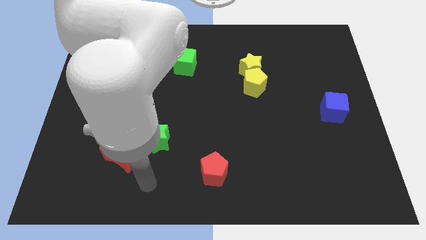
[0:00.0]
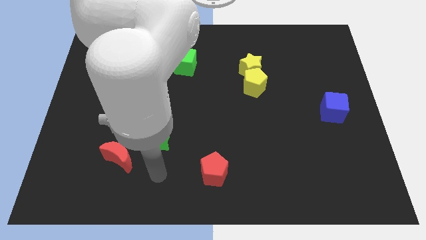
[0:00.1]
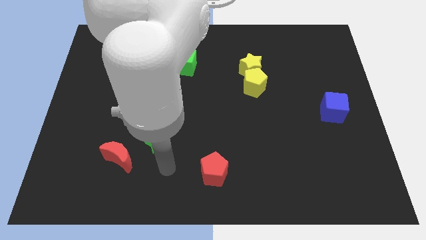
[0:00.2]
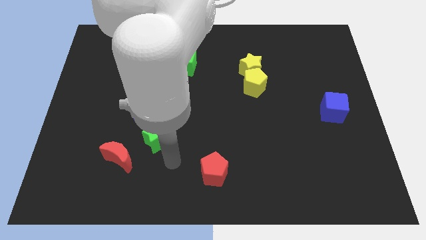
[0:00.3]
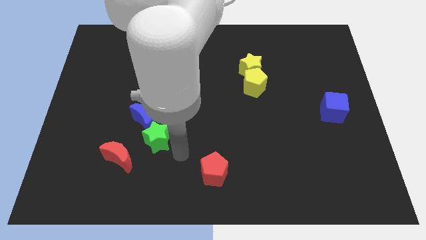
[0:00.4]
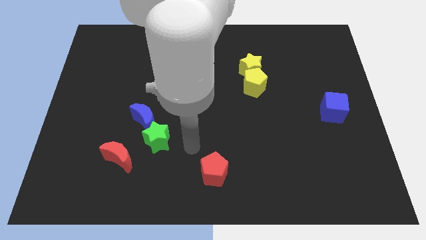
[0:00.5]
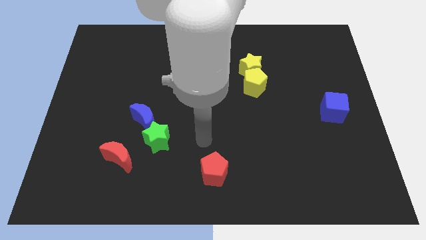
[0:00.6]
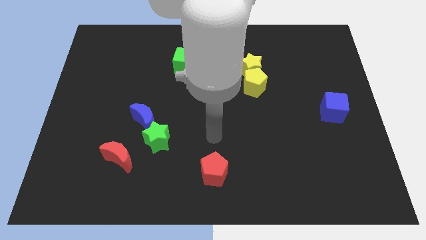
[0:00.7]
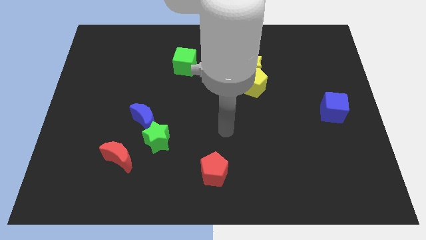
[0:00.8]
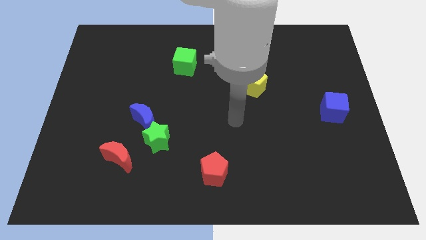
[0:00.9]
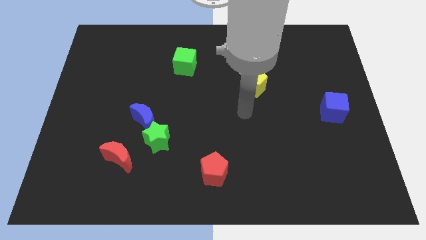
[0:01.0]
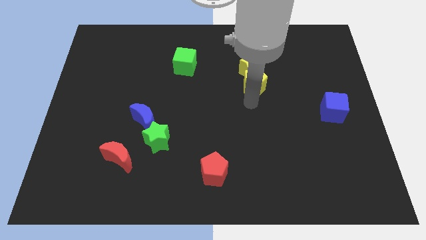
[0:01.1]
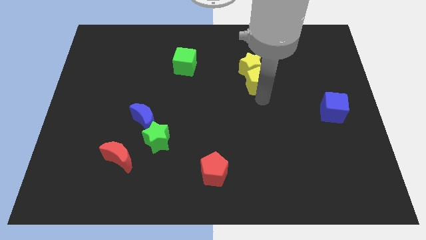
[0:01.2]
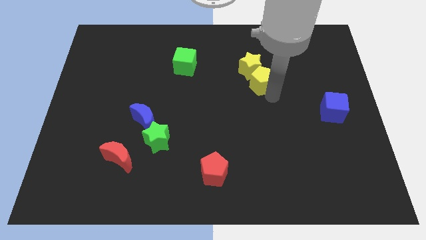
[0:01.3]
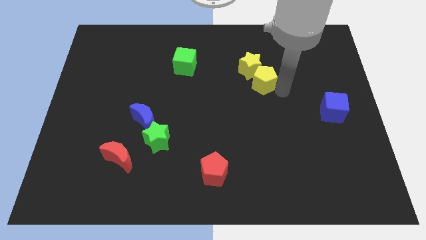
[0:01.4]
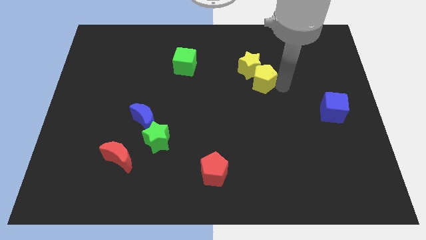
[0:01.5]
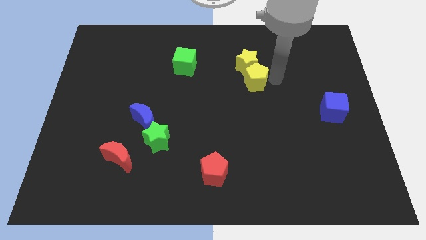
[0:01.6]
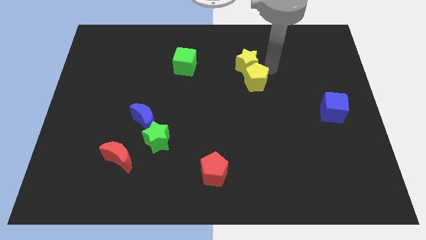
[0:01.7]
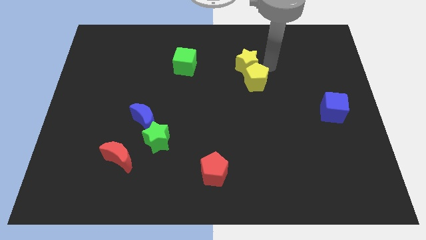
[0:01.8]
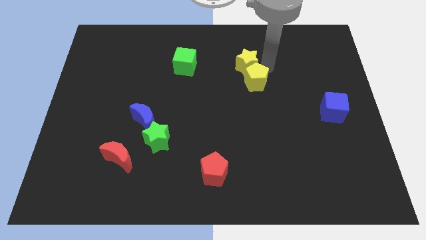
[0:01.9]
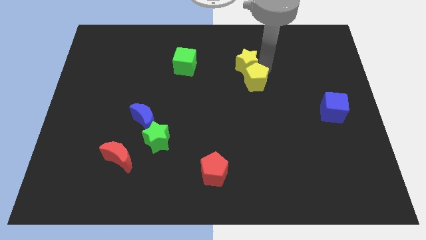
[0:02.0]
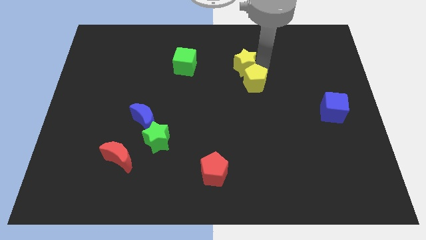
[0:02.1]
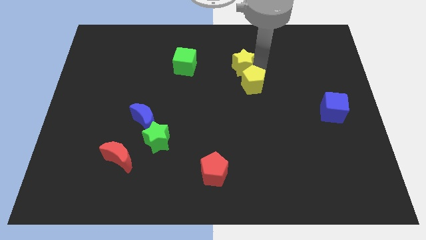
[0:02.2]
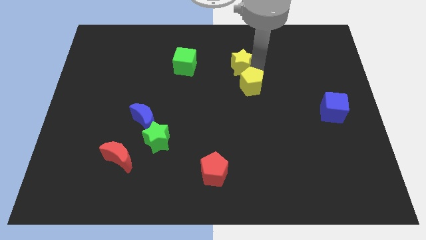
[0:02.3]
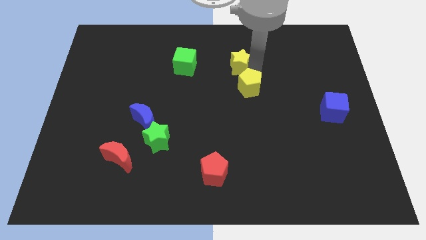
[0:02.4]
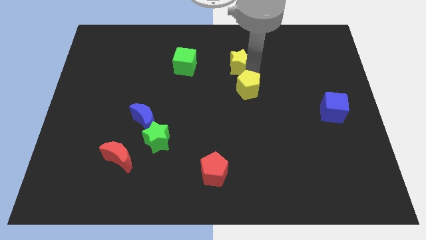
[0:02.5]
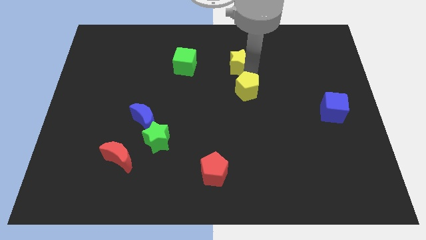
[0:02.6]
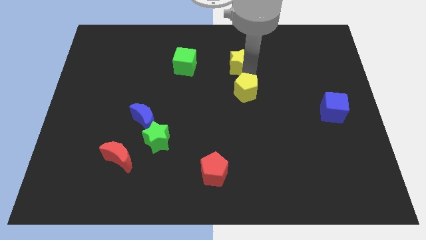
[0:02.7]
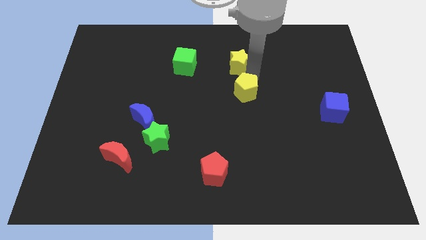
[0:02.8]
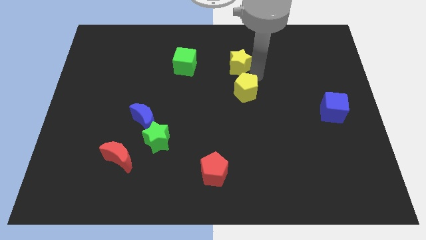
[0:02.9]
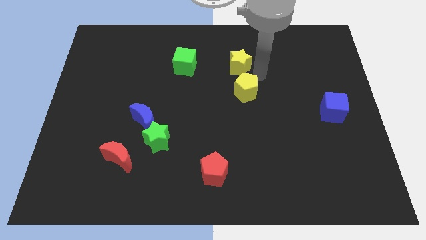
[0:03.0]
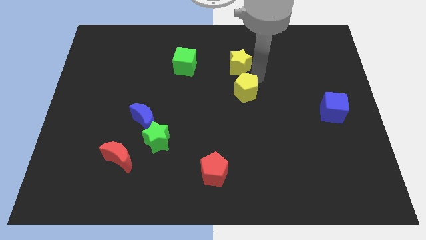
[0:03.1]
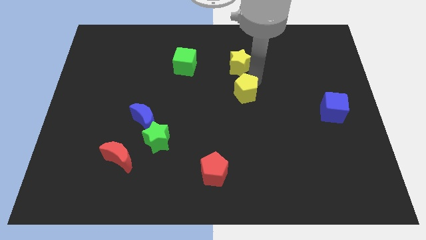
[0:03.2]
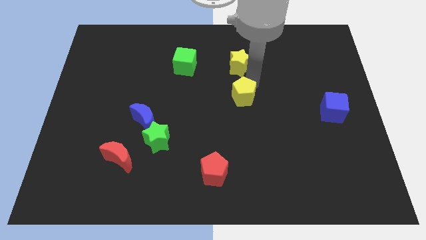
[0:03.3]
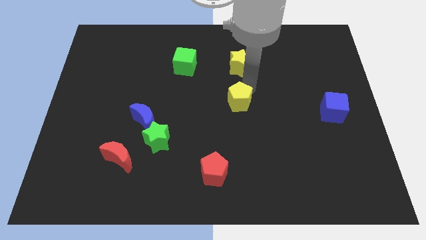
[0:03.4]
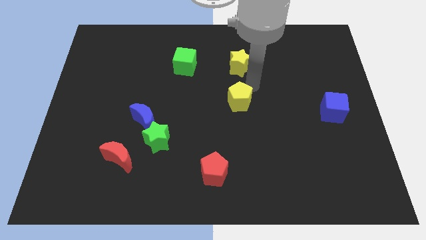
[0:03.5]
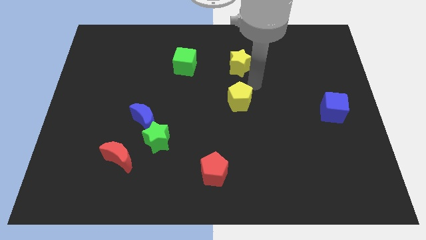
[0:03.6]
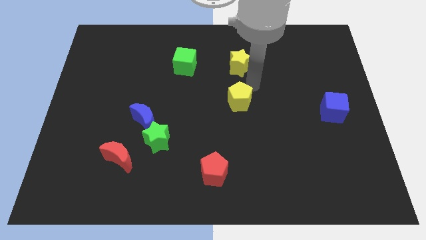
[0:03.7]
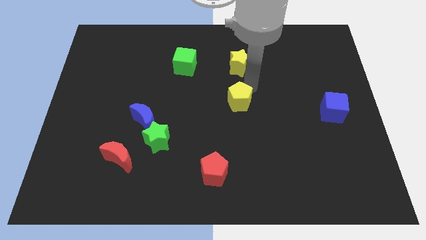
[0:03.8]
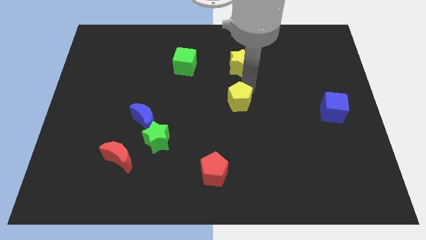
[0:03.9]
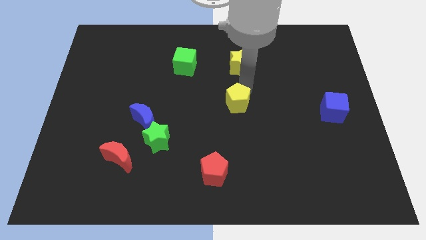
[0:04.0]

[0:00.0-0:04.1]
slightly slide the yellow pentagon down and to the left

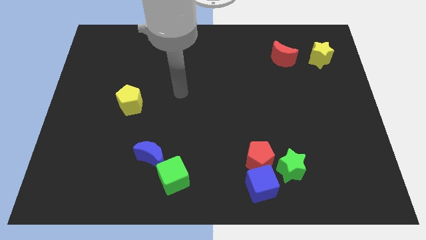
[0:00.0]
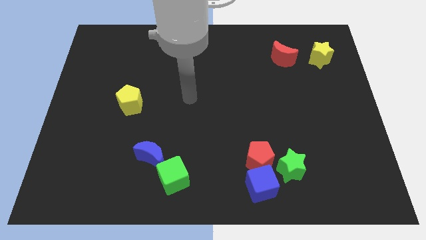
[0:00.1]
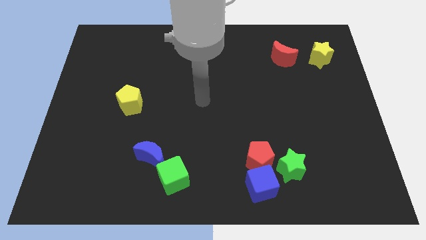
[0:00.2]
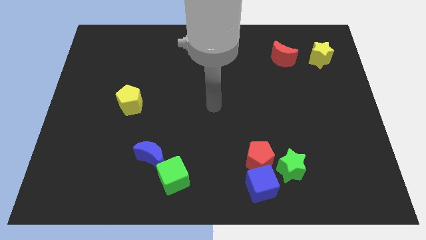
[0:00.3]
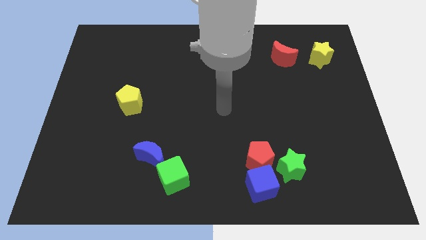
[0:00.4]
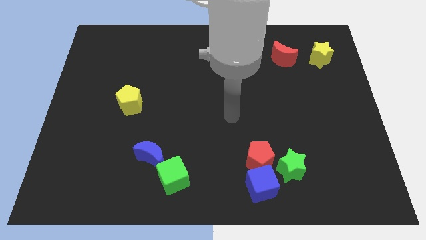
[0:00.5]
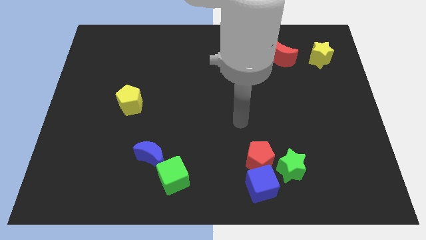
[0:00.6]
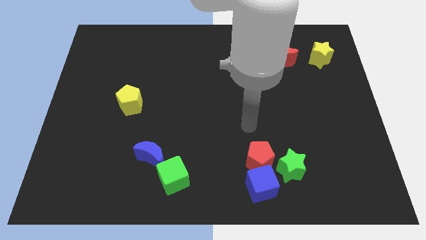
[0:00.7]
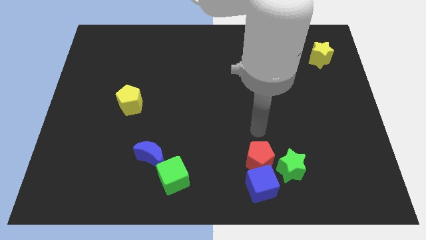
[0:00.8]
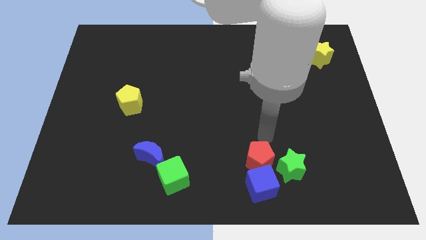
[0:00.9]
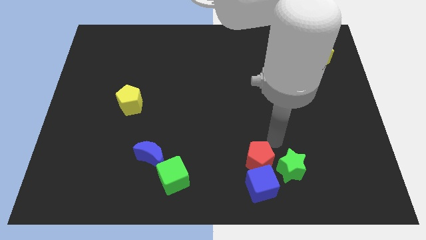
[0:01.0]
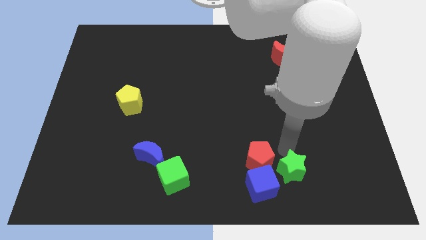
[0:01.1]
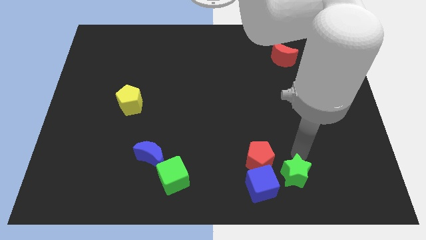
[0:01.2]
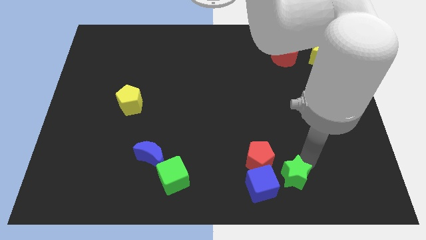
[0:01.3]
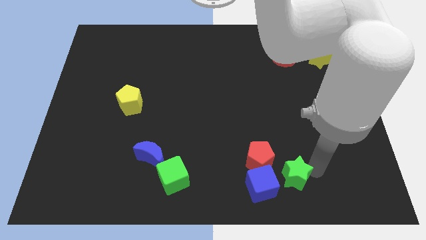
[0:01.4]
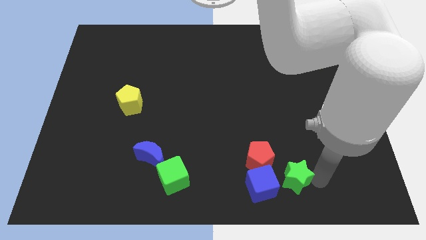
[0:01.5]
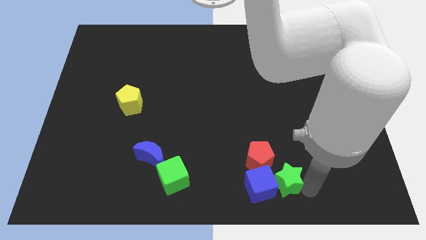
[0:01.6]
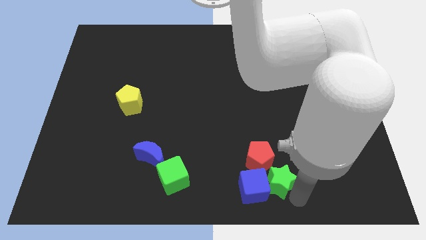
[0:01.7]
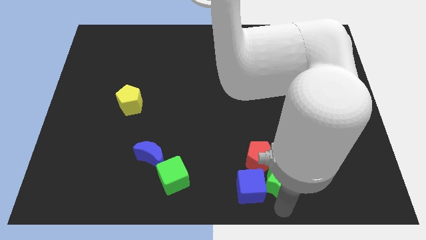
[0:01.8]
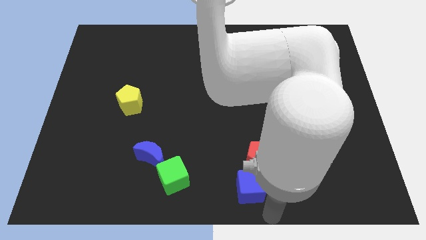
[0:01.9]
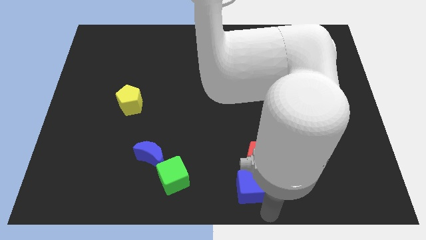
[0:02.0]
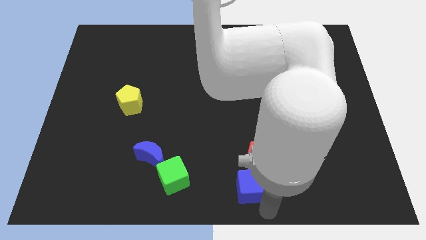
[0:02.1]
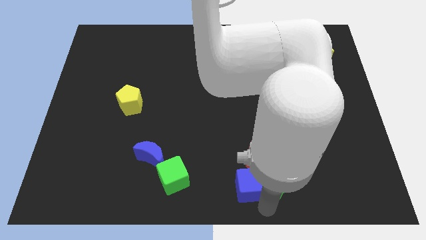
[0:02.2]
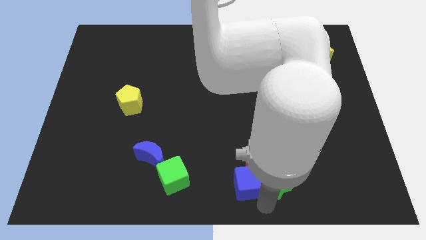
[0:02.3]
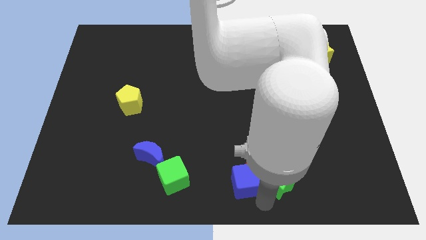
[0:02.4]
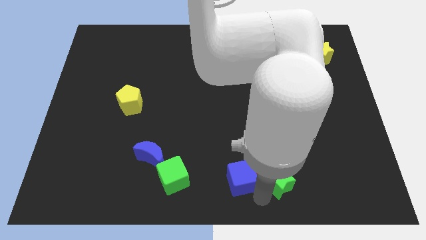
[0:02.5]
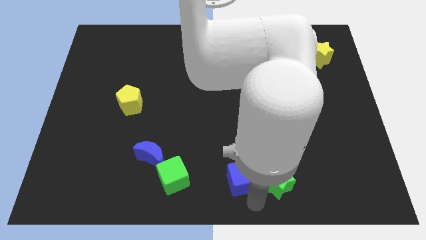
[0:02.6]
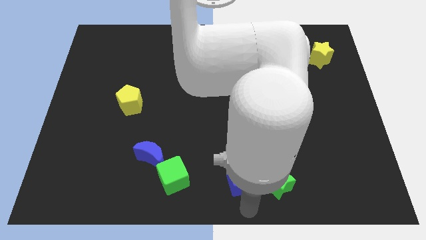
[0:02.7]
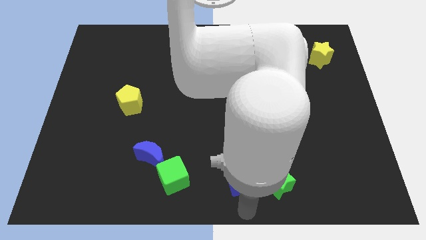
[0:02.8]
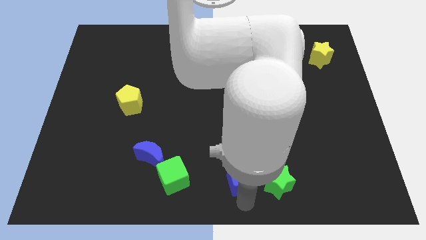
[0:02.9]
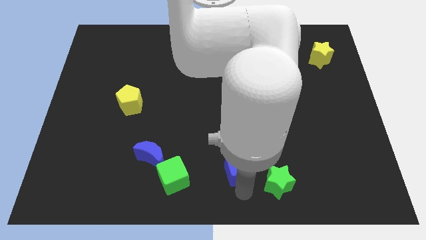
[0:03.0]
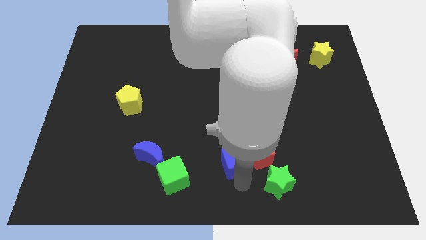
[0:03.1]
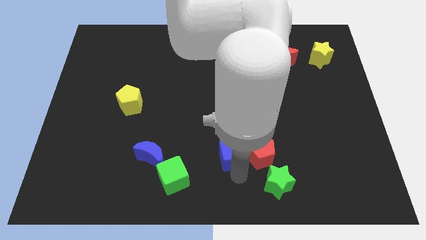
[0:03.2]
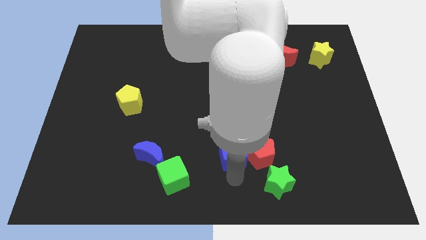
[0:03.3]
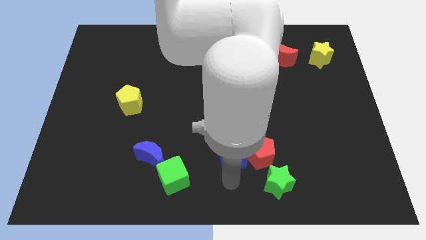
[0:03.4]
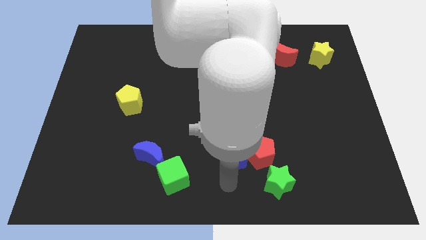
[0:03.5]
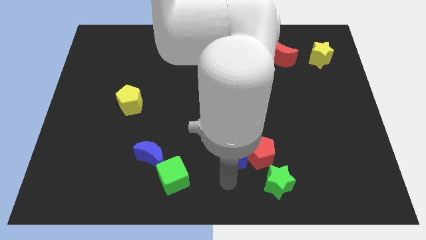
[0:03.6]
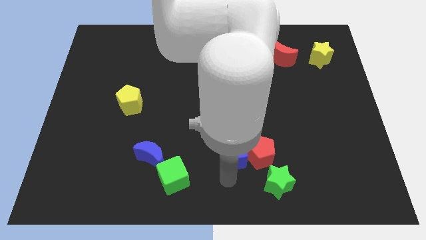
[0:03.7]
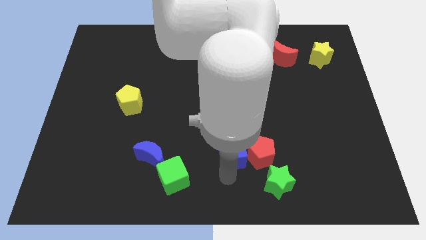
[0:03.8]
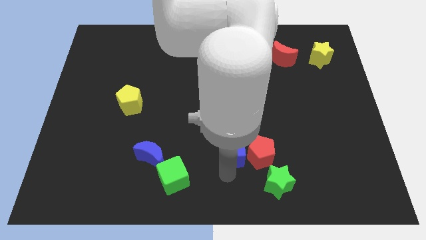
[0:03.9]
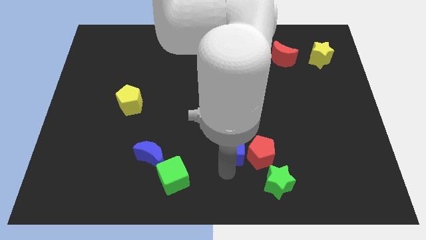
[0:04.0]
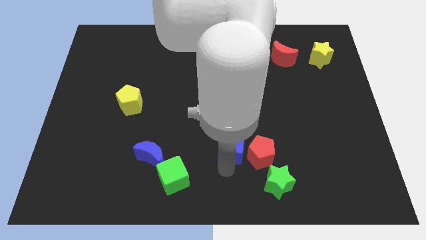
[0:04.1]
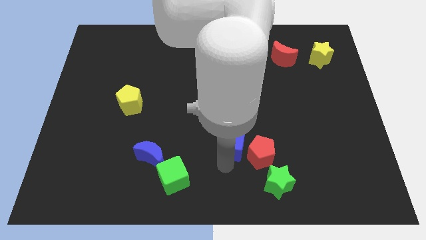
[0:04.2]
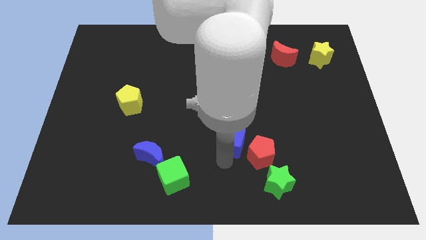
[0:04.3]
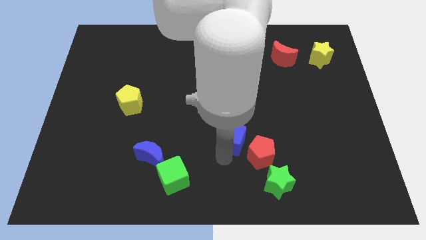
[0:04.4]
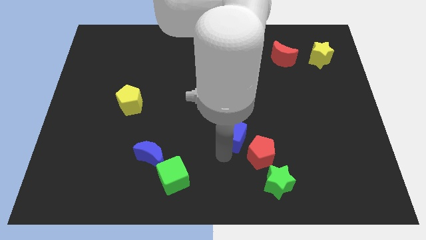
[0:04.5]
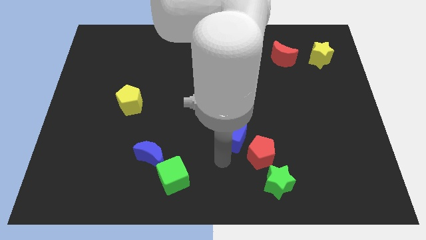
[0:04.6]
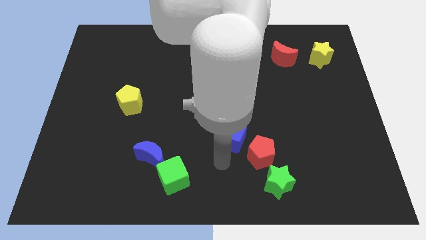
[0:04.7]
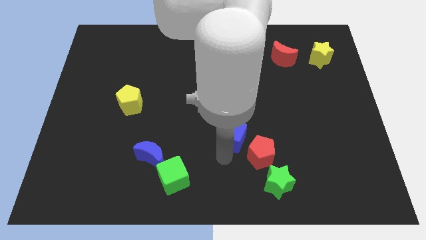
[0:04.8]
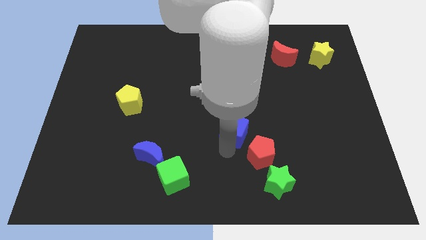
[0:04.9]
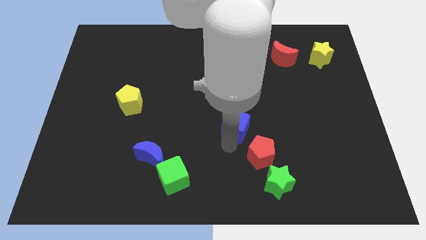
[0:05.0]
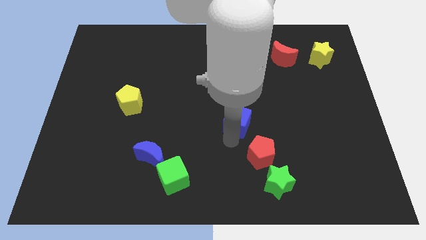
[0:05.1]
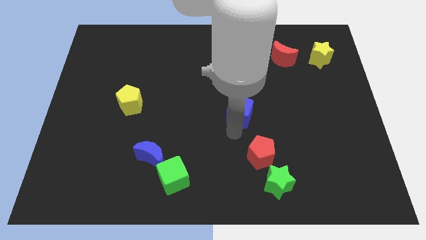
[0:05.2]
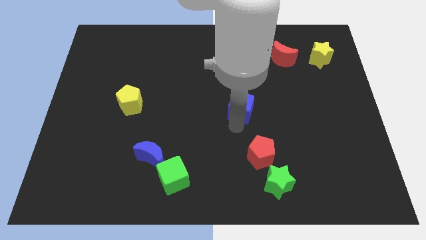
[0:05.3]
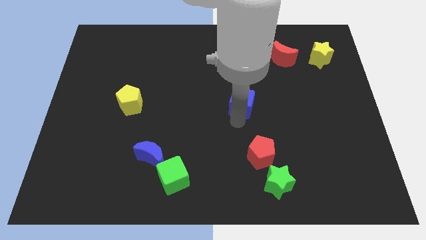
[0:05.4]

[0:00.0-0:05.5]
move the blue cube upwards
